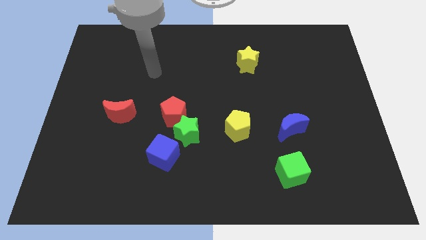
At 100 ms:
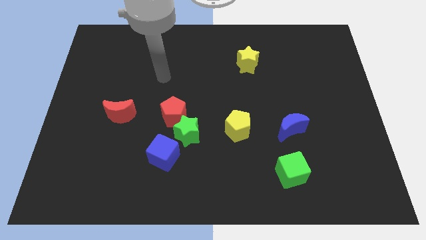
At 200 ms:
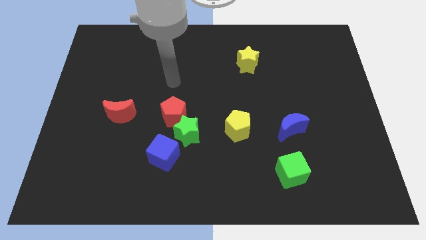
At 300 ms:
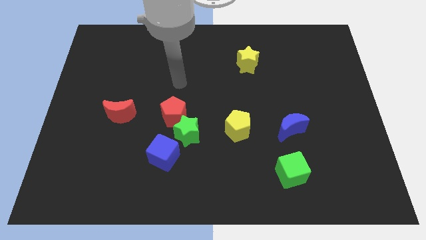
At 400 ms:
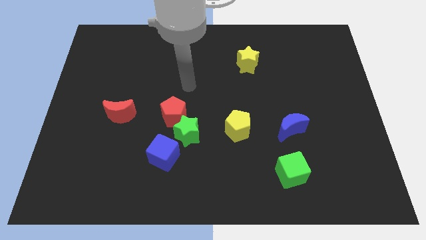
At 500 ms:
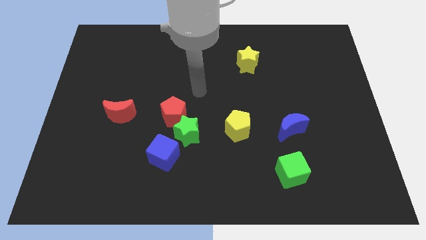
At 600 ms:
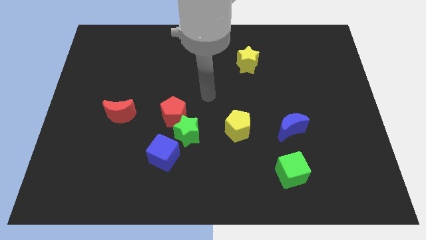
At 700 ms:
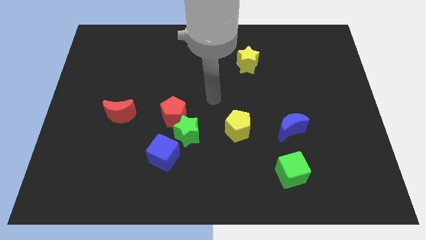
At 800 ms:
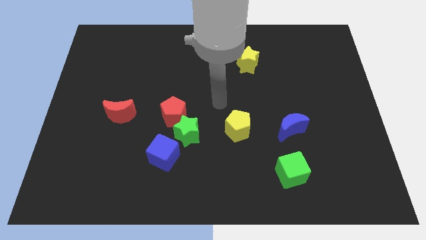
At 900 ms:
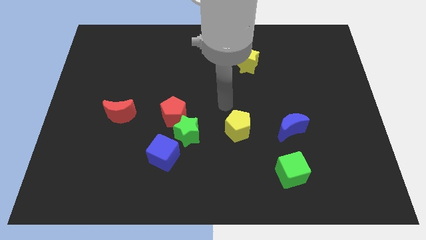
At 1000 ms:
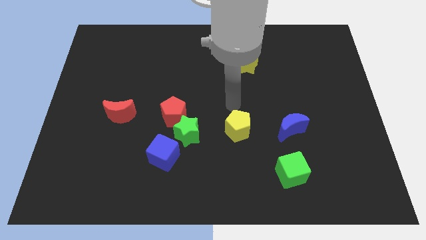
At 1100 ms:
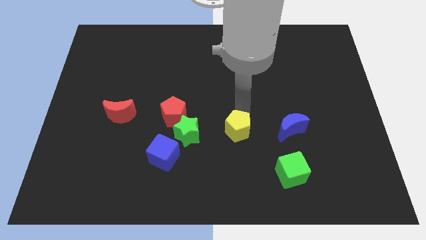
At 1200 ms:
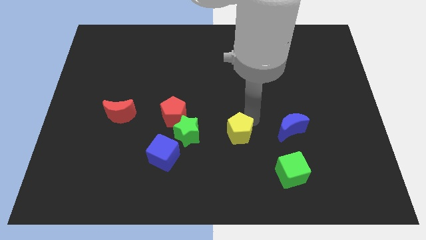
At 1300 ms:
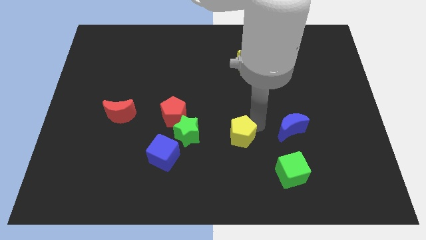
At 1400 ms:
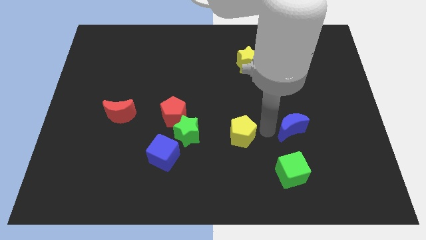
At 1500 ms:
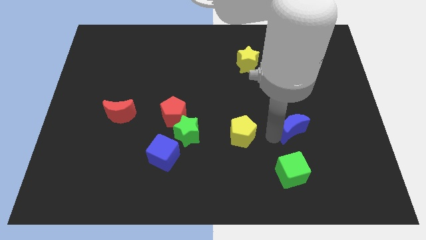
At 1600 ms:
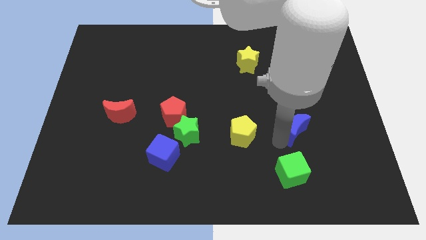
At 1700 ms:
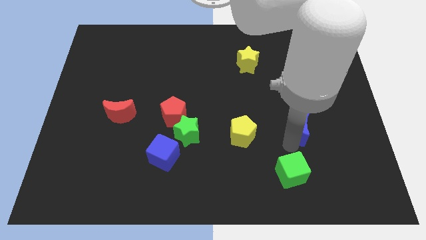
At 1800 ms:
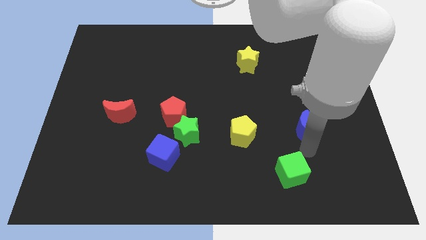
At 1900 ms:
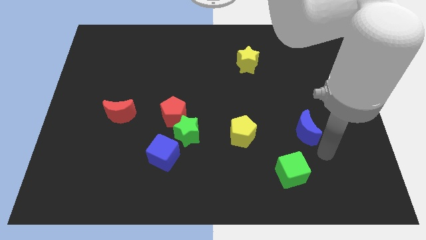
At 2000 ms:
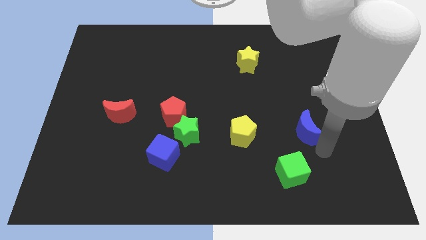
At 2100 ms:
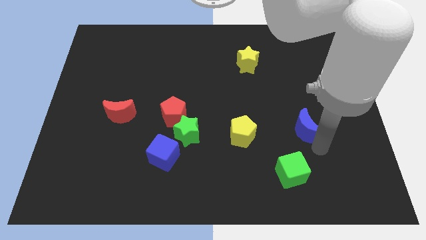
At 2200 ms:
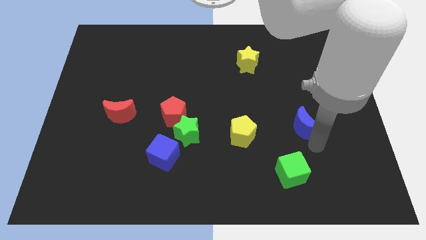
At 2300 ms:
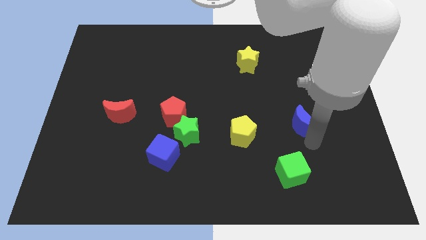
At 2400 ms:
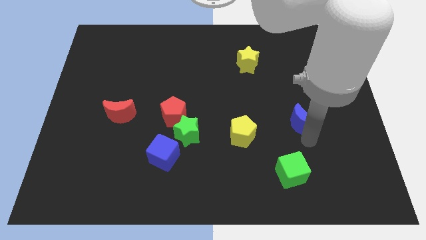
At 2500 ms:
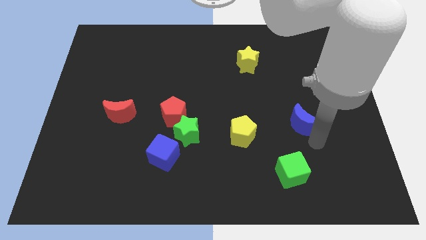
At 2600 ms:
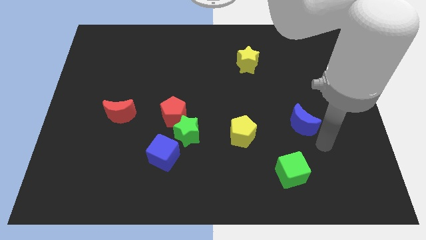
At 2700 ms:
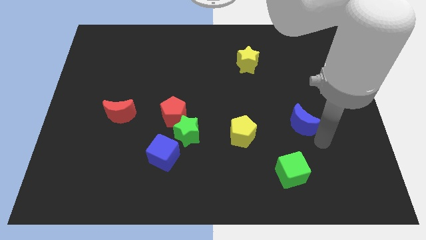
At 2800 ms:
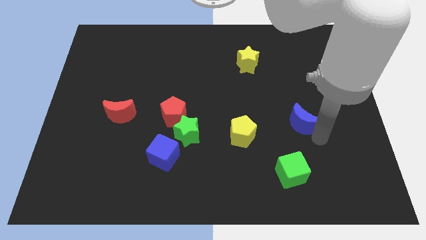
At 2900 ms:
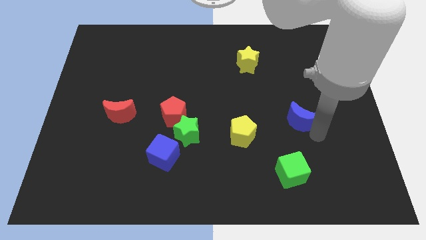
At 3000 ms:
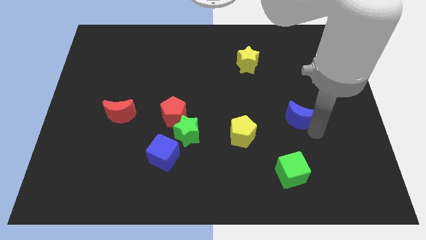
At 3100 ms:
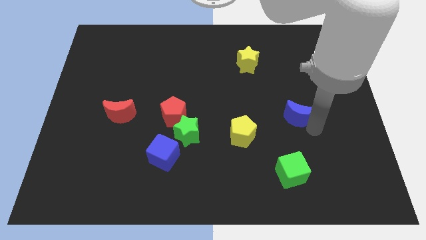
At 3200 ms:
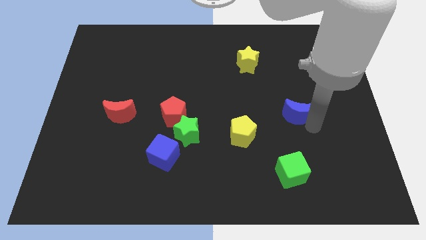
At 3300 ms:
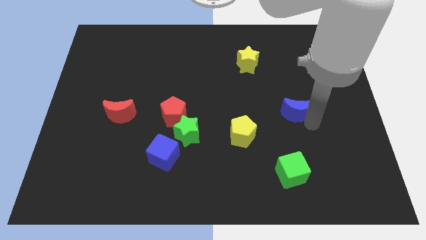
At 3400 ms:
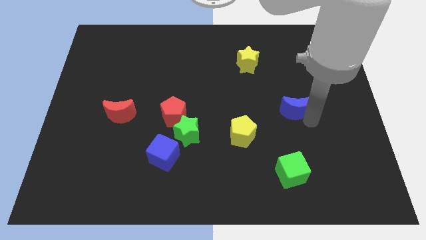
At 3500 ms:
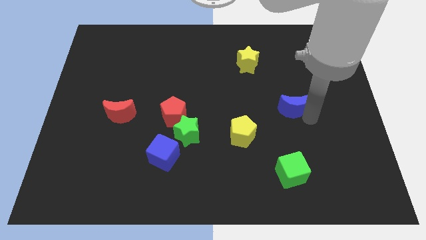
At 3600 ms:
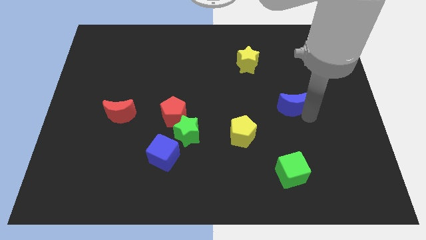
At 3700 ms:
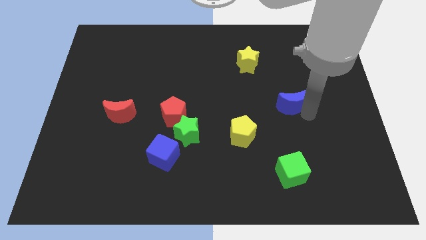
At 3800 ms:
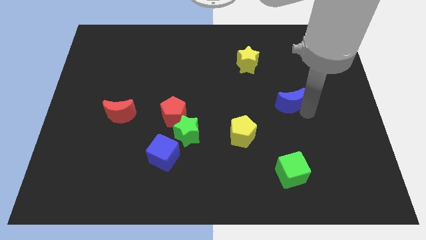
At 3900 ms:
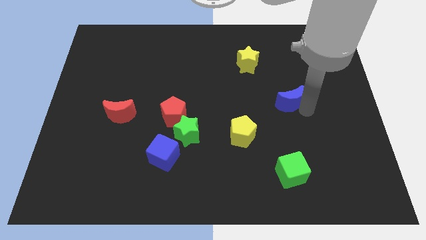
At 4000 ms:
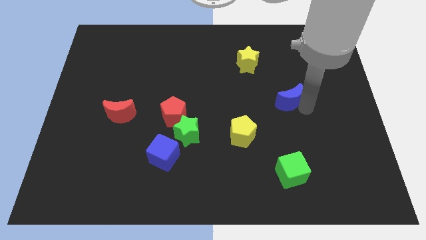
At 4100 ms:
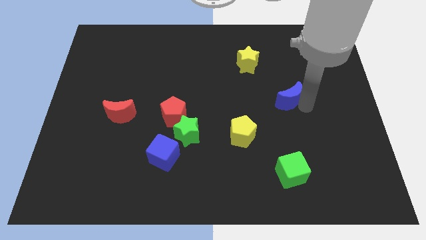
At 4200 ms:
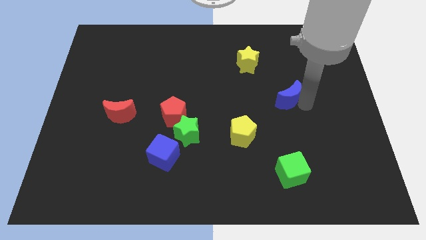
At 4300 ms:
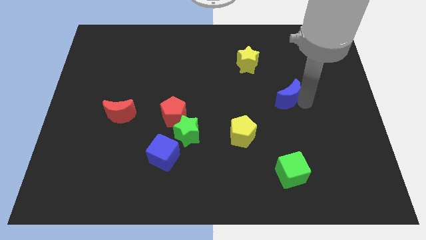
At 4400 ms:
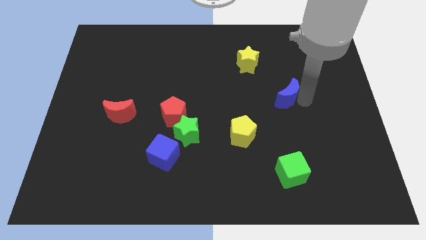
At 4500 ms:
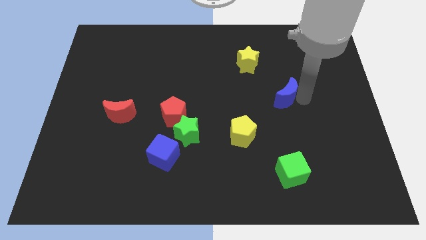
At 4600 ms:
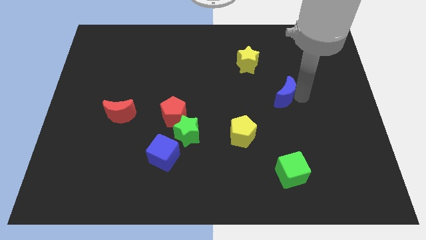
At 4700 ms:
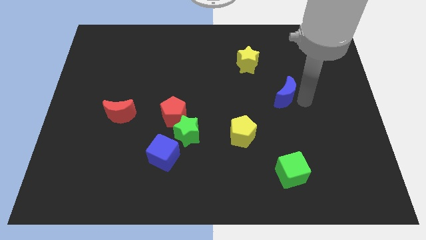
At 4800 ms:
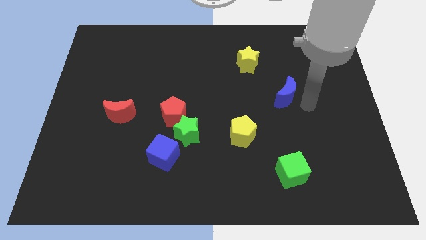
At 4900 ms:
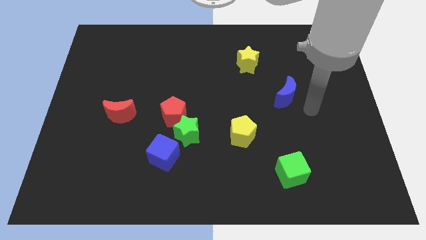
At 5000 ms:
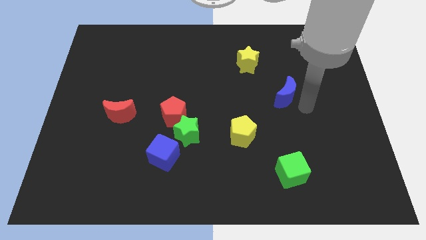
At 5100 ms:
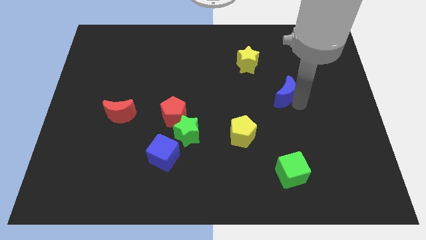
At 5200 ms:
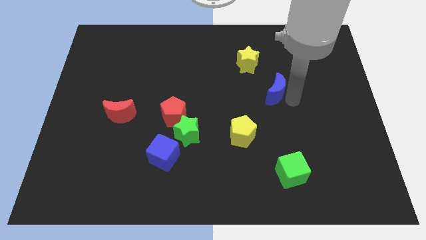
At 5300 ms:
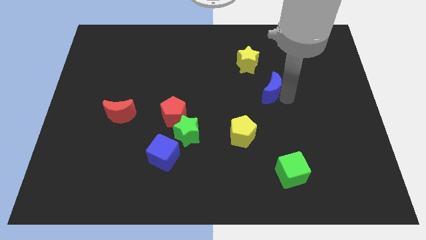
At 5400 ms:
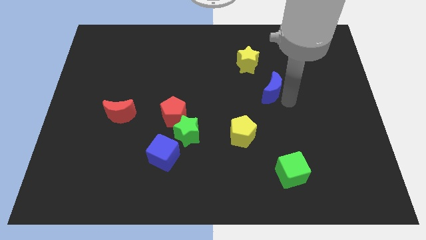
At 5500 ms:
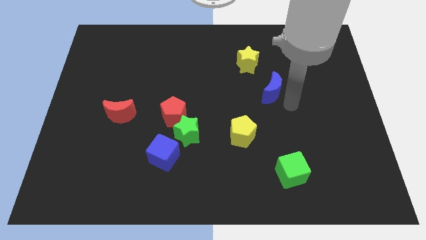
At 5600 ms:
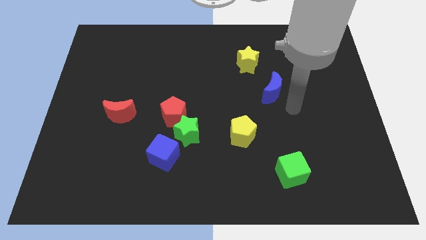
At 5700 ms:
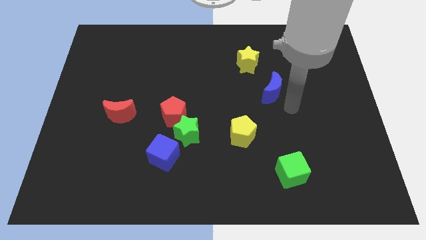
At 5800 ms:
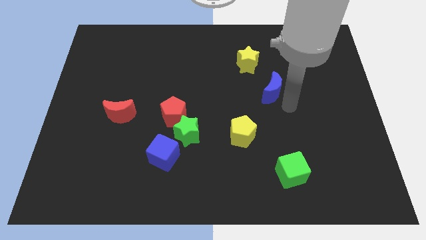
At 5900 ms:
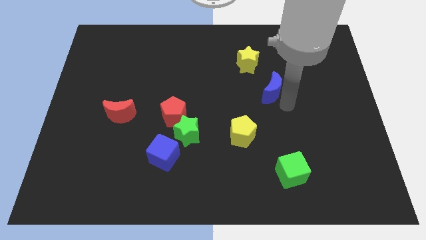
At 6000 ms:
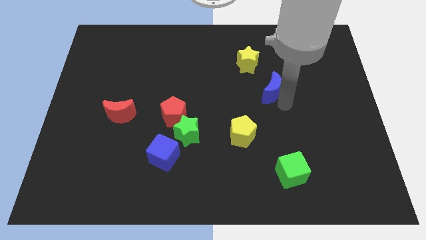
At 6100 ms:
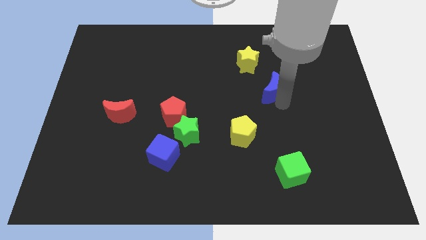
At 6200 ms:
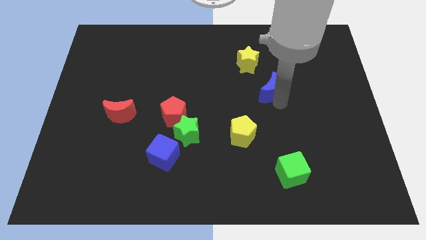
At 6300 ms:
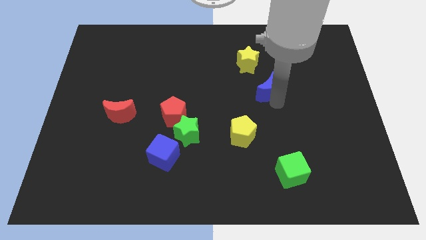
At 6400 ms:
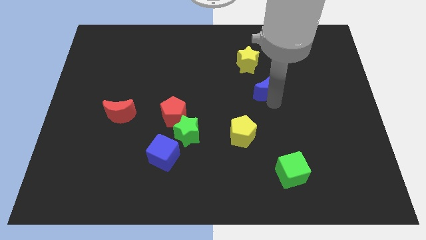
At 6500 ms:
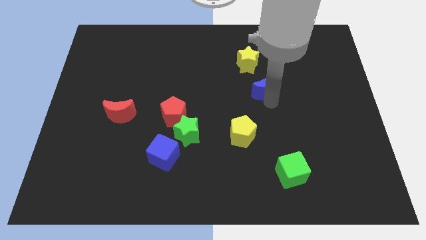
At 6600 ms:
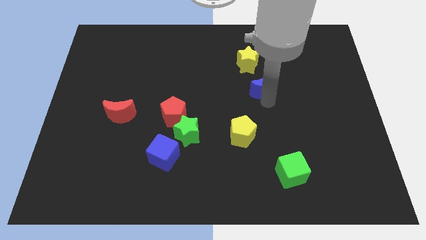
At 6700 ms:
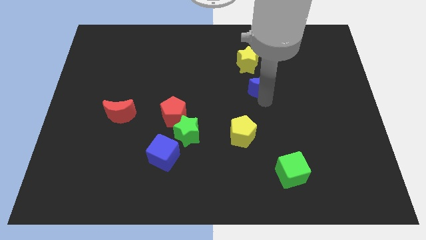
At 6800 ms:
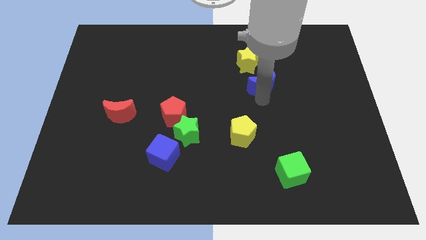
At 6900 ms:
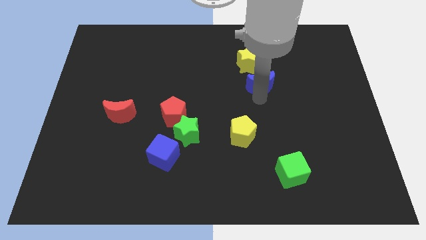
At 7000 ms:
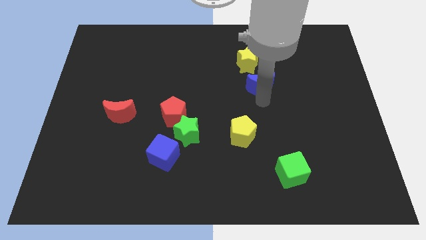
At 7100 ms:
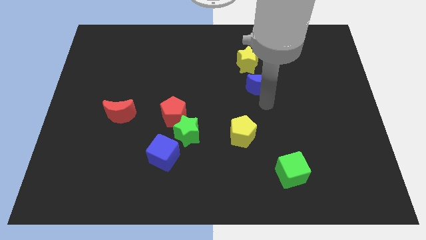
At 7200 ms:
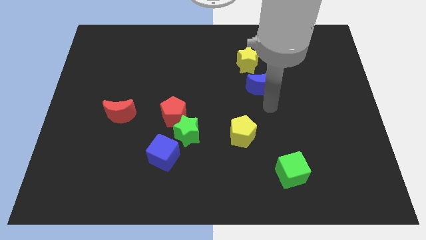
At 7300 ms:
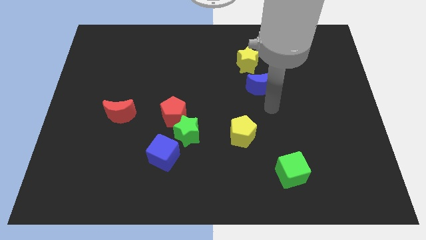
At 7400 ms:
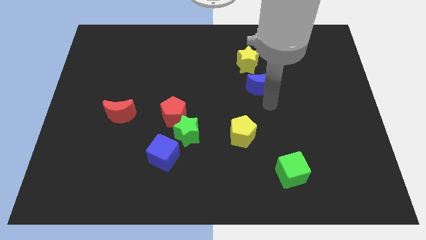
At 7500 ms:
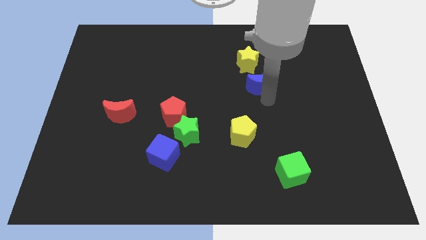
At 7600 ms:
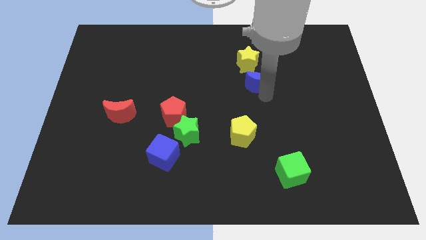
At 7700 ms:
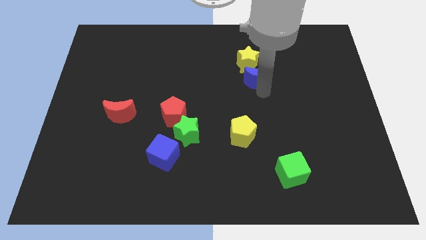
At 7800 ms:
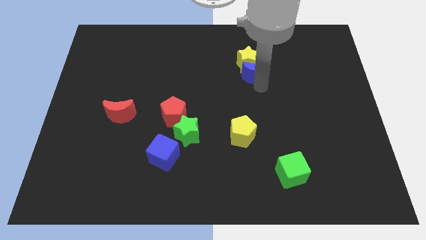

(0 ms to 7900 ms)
move the blue moon towards the yellow star

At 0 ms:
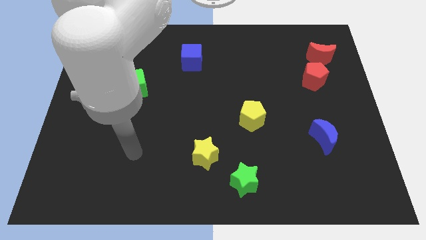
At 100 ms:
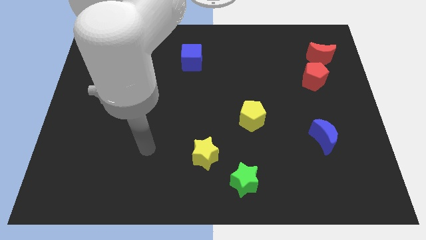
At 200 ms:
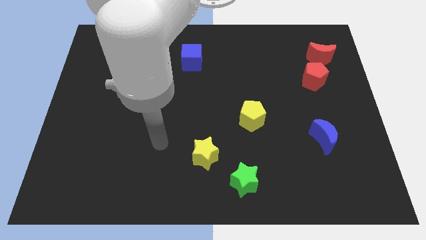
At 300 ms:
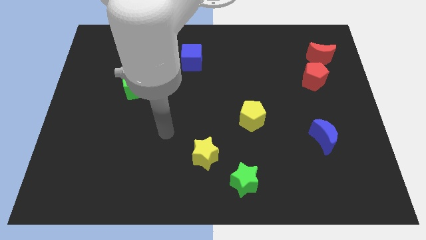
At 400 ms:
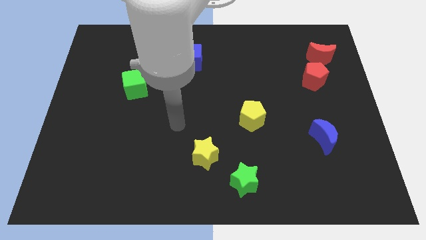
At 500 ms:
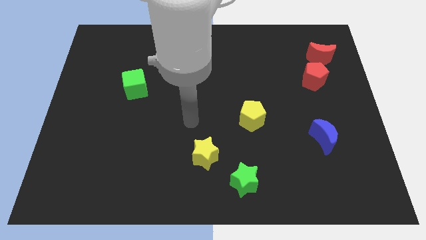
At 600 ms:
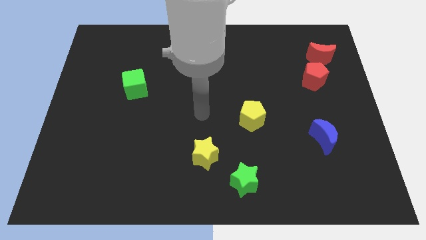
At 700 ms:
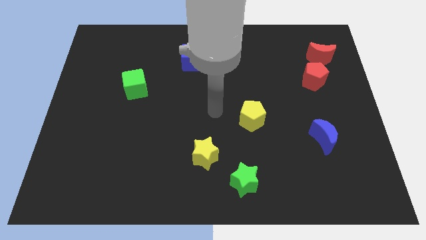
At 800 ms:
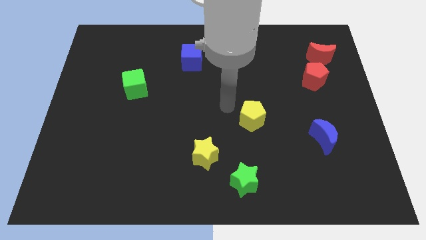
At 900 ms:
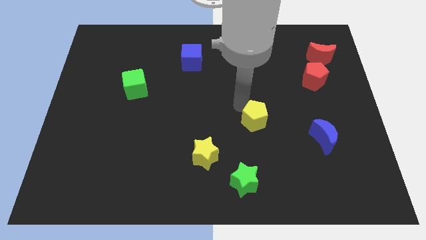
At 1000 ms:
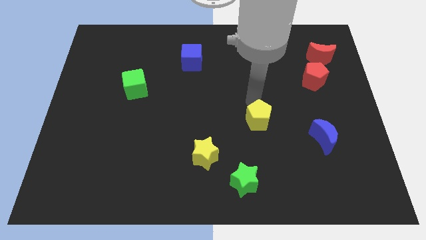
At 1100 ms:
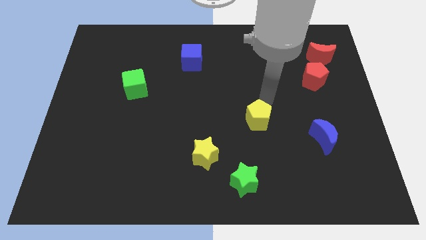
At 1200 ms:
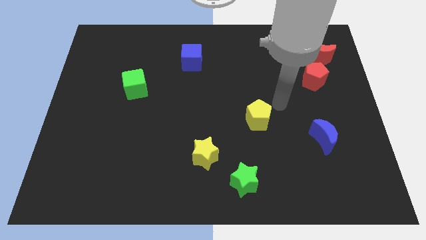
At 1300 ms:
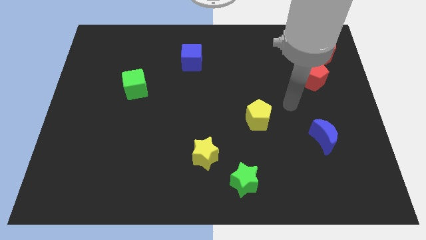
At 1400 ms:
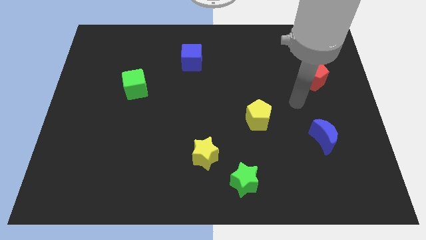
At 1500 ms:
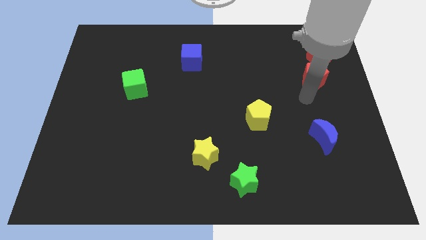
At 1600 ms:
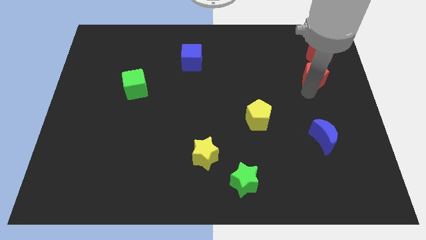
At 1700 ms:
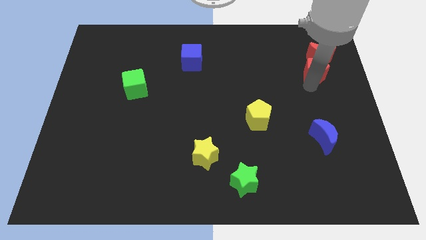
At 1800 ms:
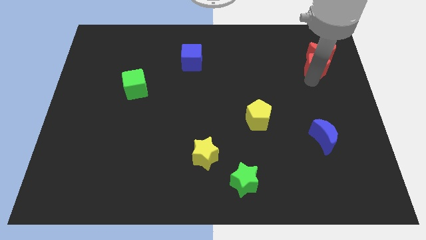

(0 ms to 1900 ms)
slide the red pentagon close to the red moon
